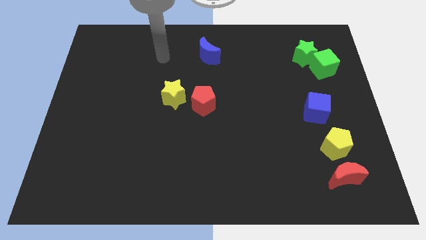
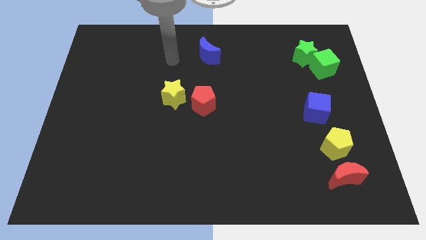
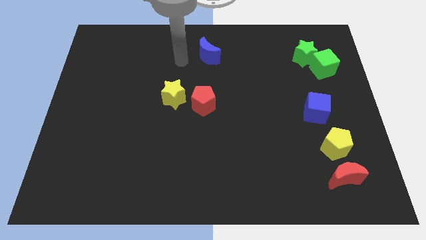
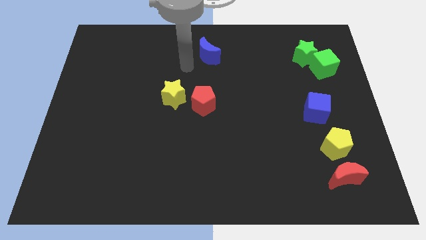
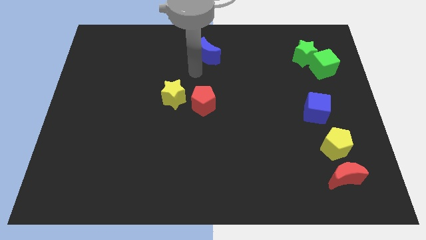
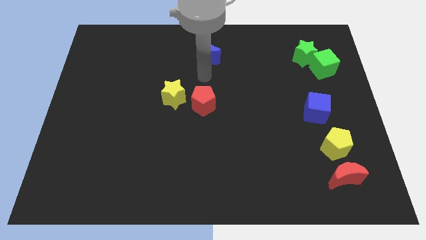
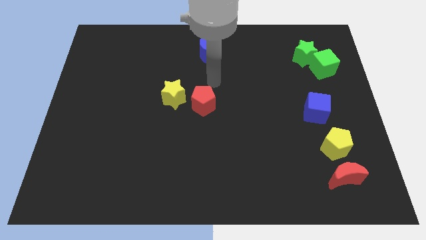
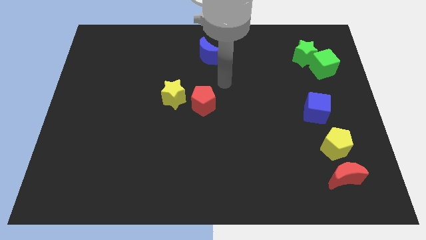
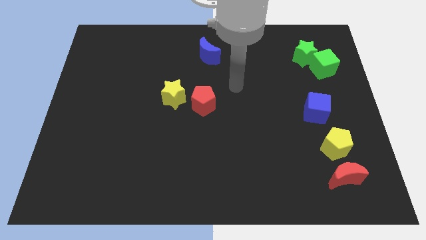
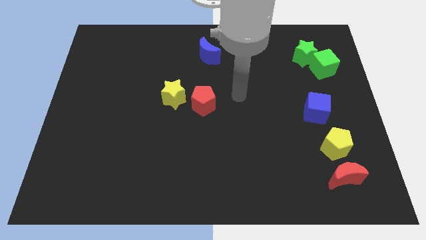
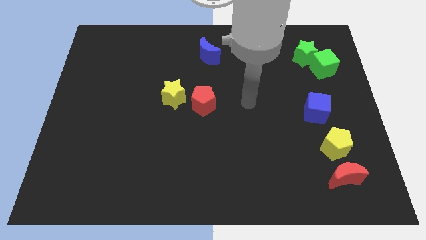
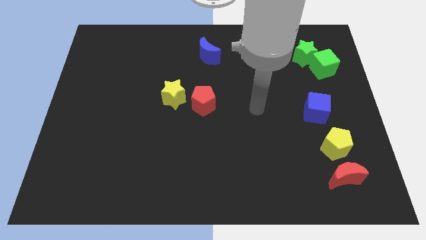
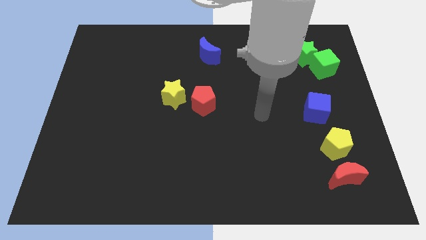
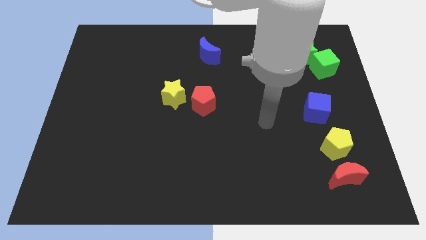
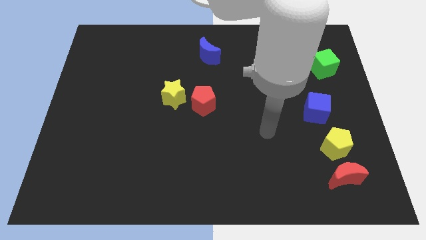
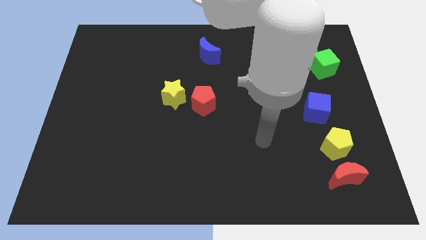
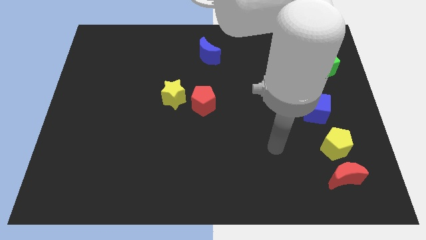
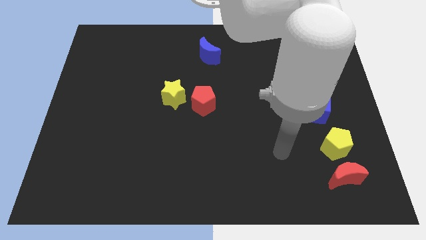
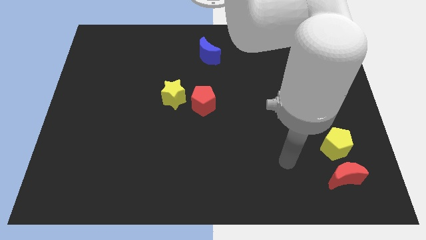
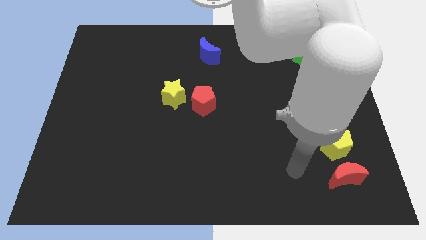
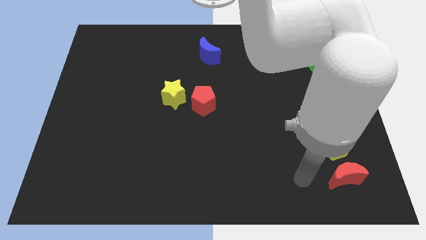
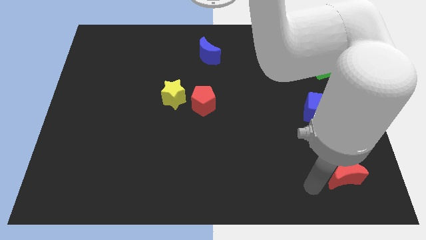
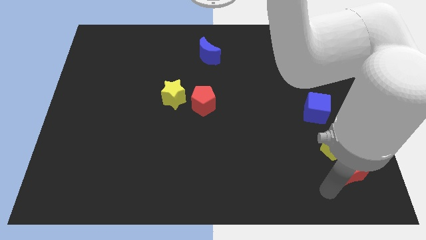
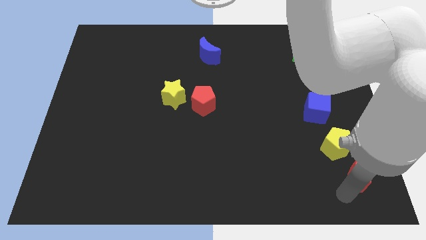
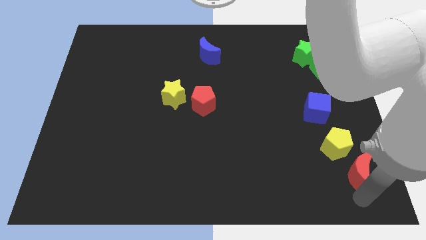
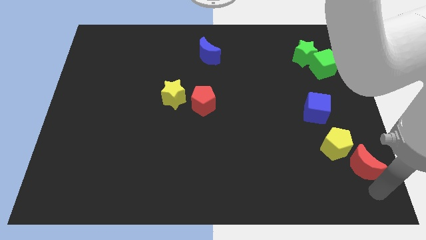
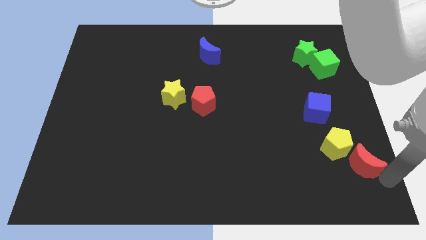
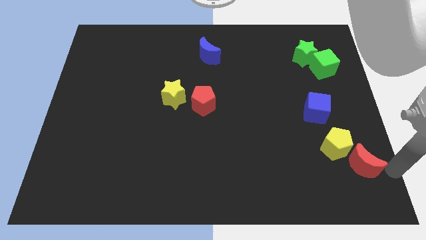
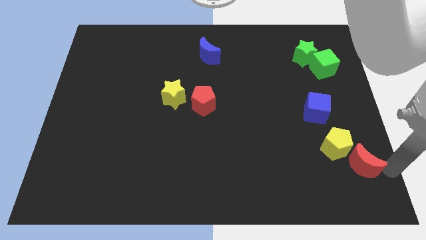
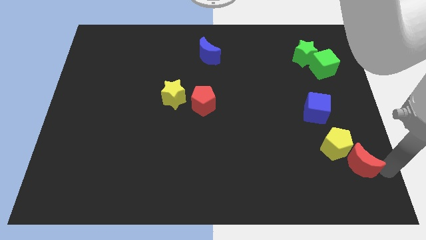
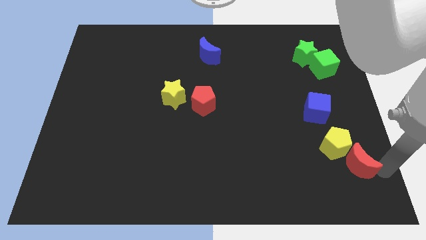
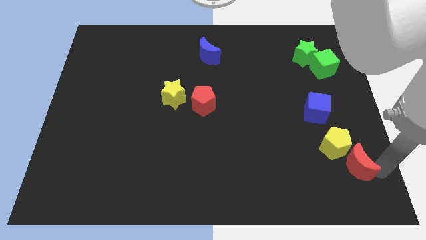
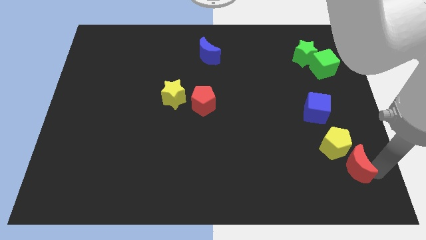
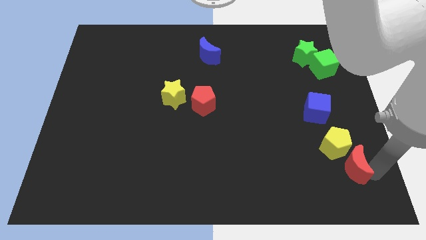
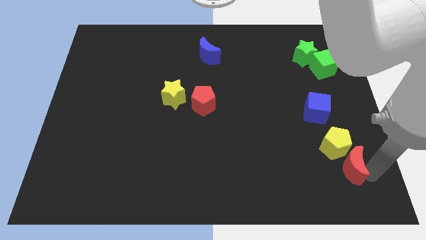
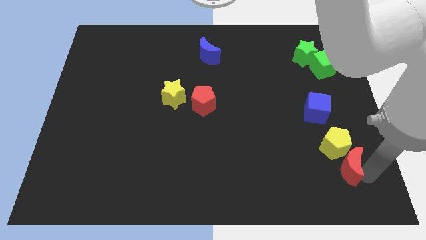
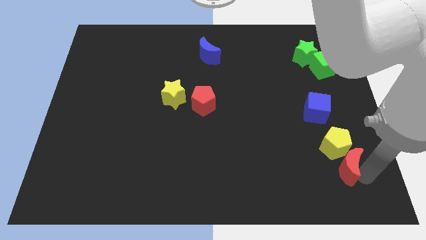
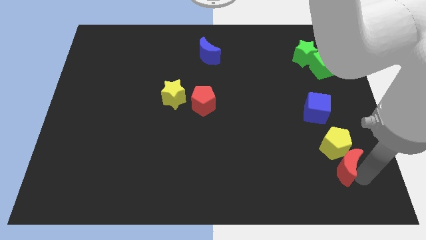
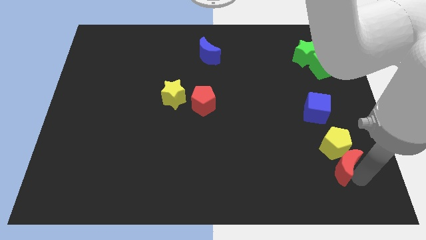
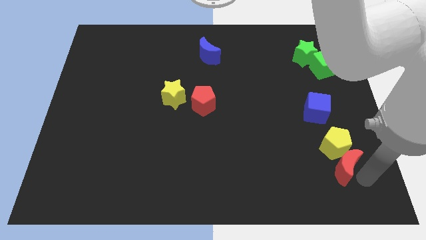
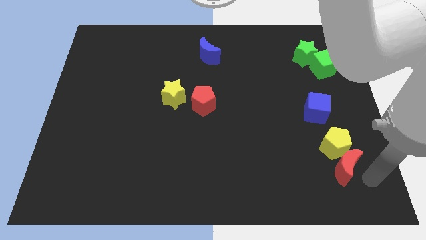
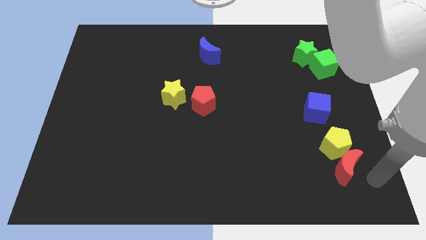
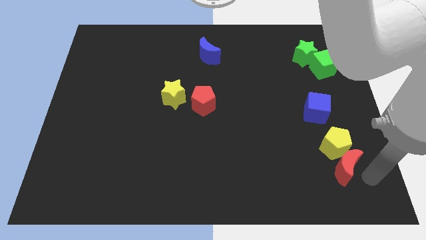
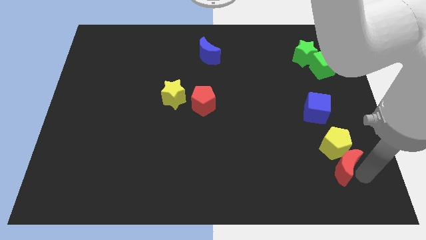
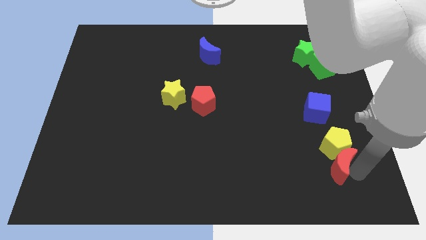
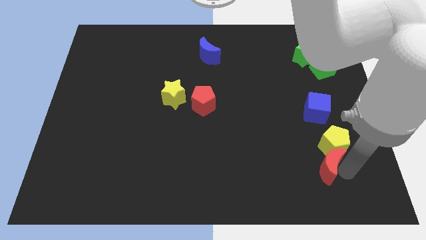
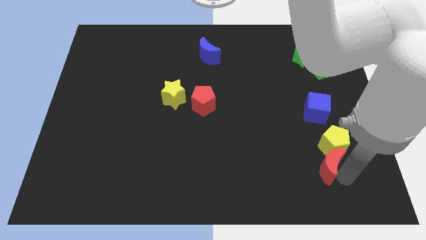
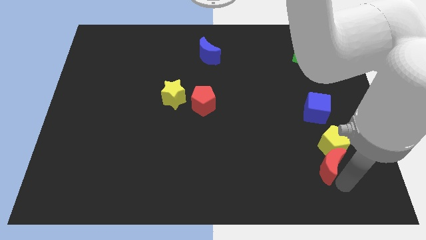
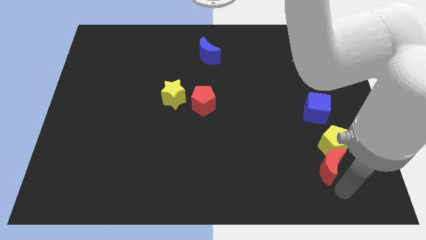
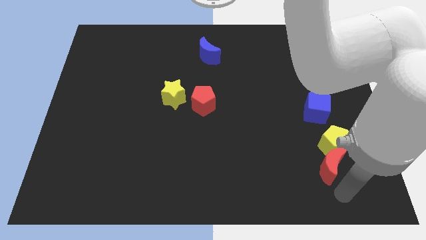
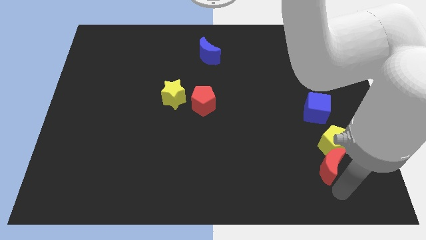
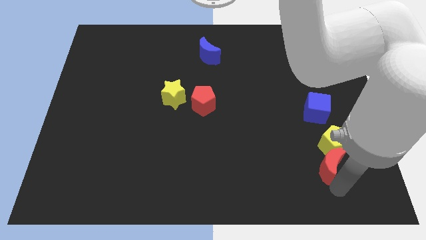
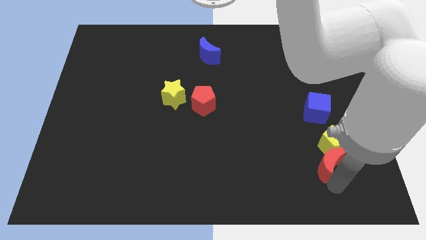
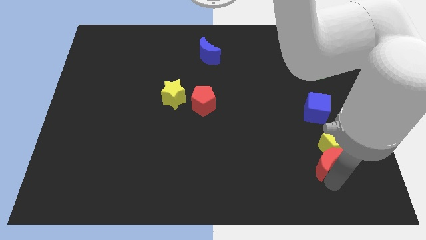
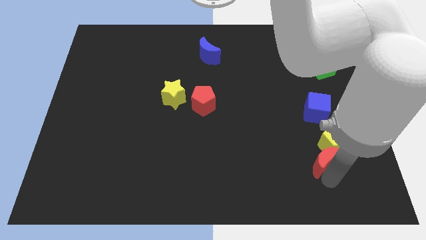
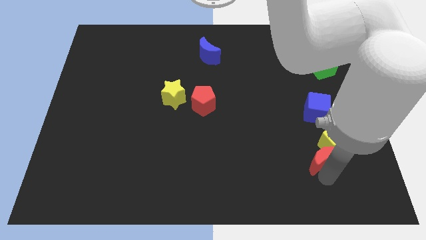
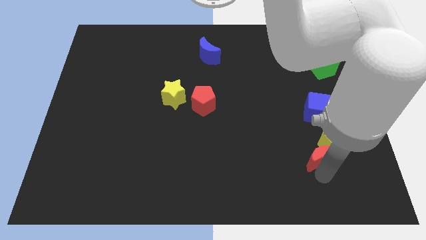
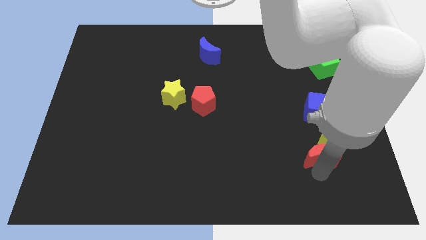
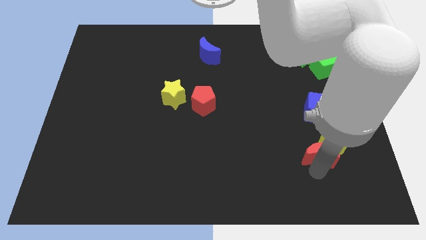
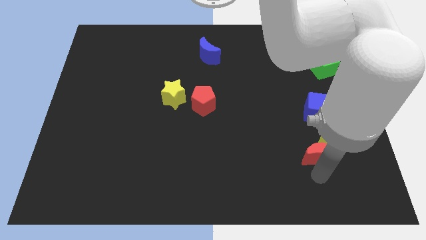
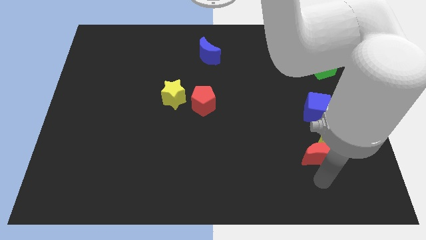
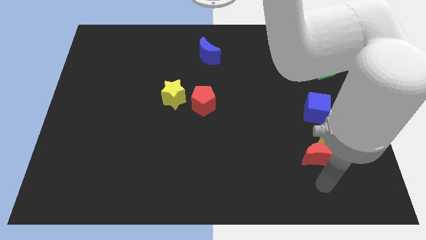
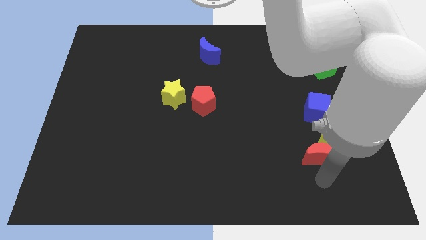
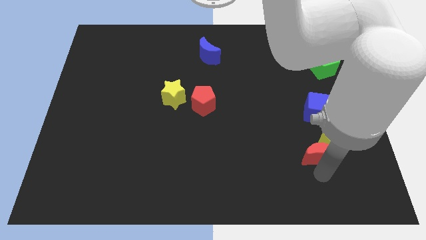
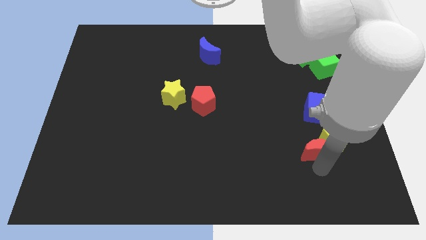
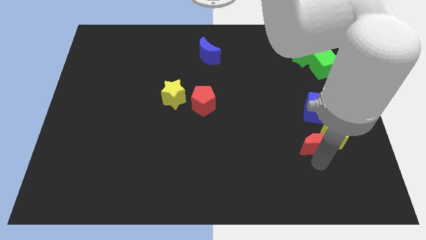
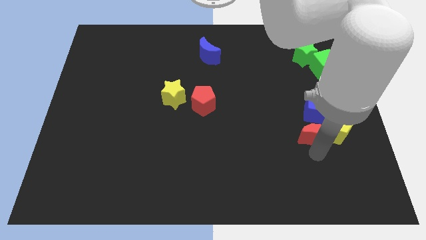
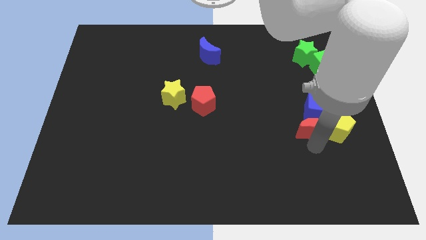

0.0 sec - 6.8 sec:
slide the red moon close to the blue cube
